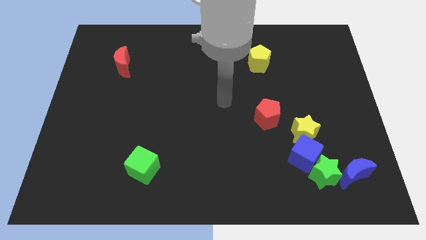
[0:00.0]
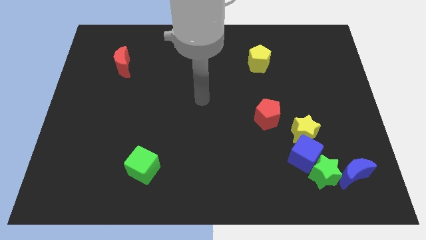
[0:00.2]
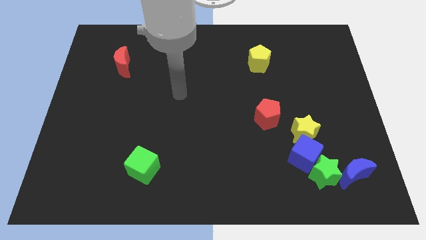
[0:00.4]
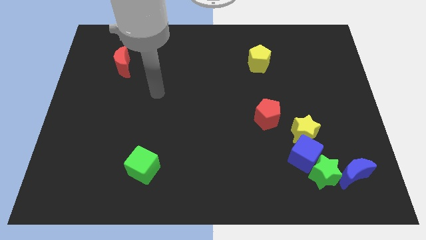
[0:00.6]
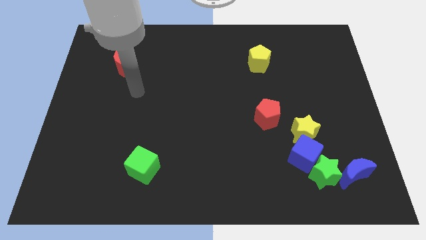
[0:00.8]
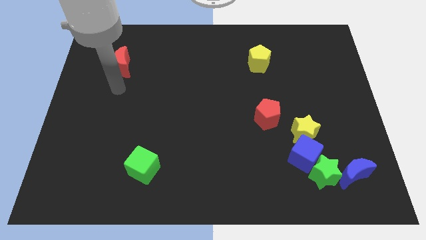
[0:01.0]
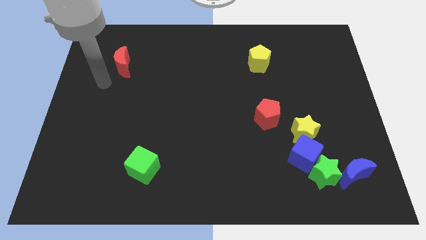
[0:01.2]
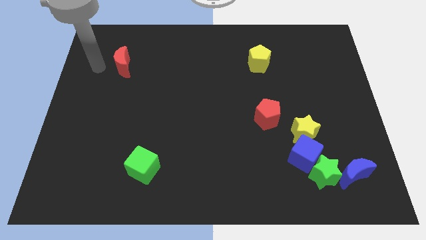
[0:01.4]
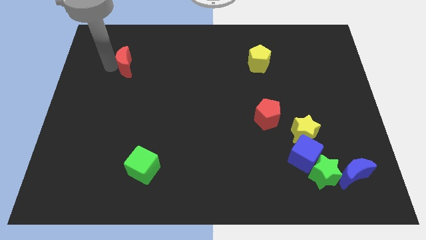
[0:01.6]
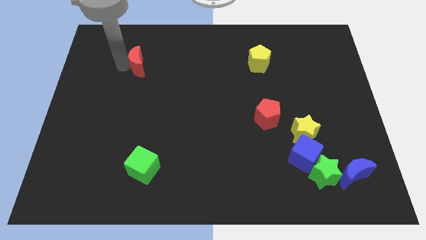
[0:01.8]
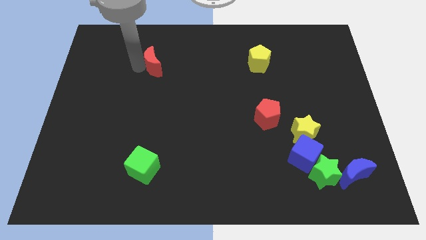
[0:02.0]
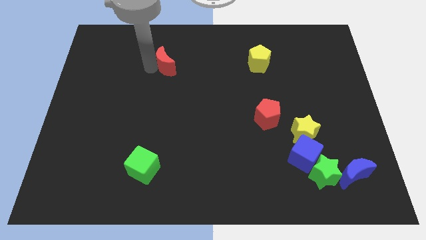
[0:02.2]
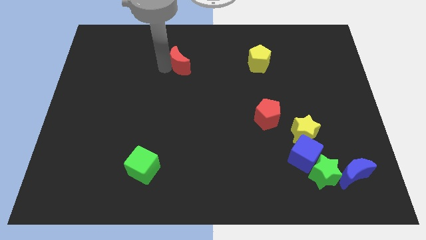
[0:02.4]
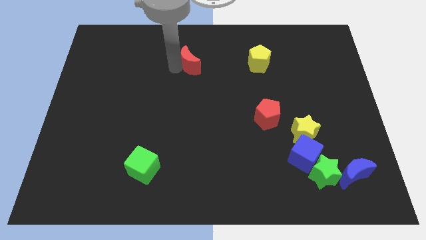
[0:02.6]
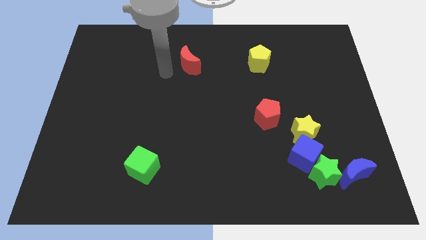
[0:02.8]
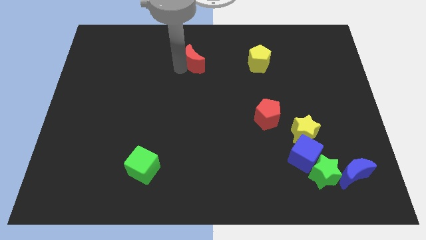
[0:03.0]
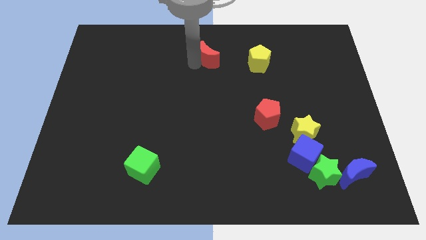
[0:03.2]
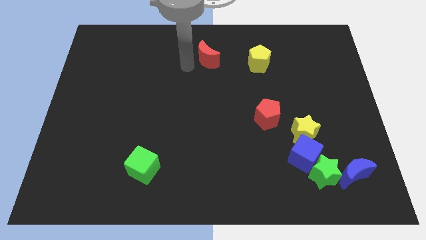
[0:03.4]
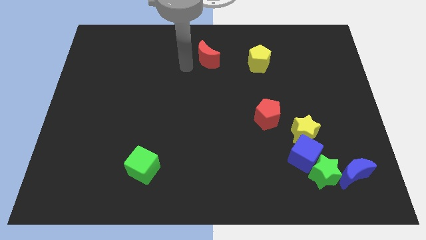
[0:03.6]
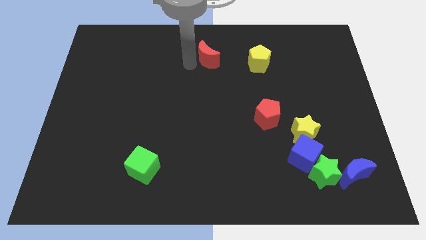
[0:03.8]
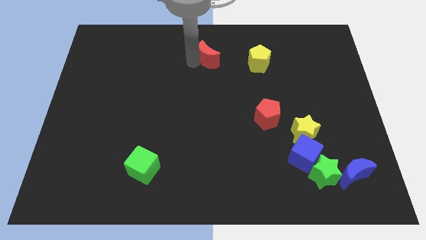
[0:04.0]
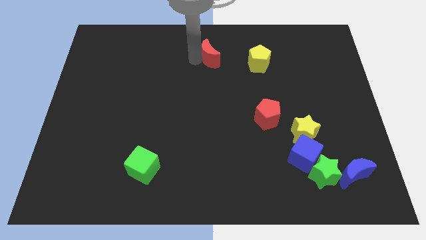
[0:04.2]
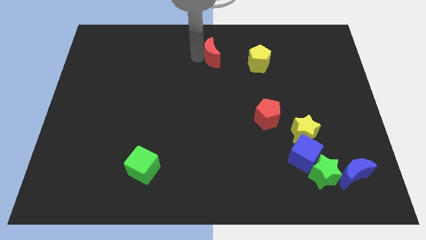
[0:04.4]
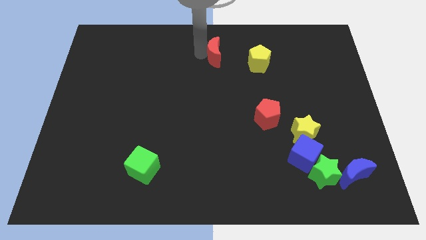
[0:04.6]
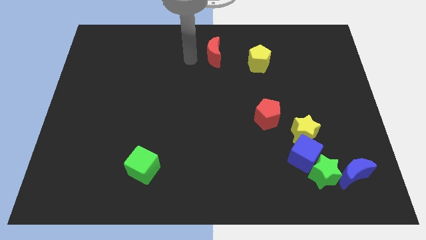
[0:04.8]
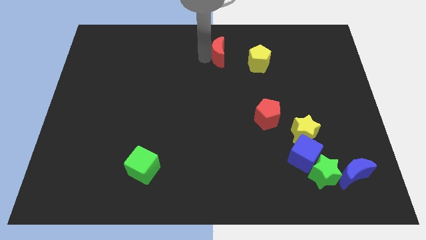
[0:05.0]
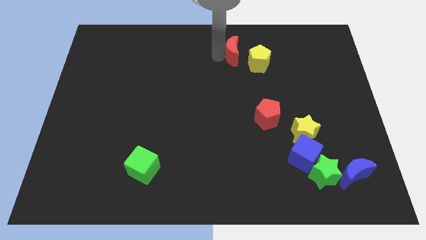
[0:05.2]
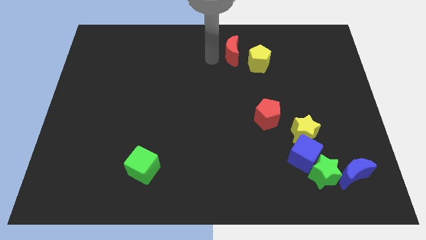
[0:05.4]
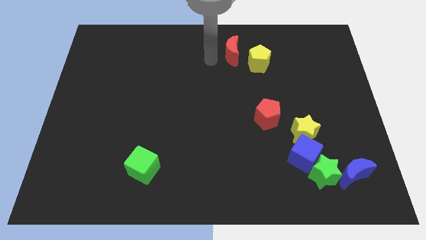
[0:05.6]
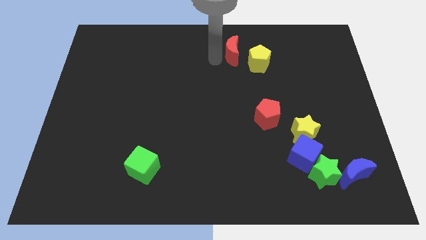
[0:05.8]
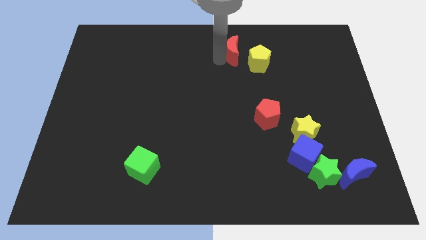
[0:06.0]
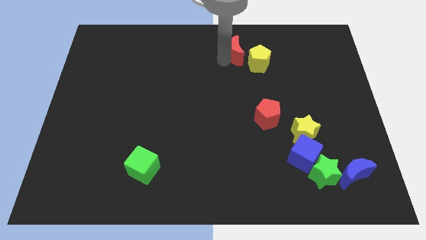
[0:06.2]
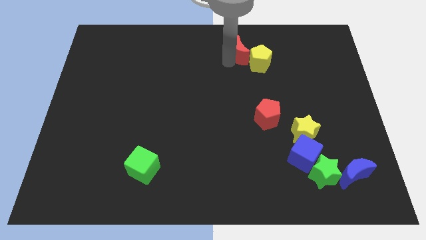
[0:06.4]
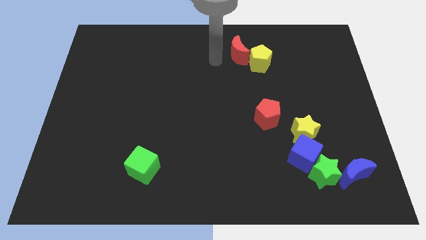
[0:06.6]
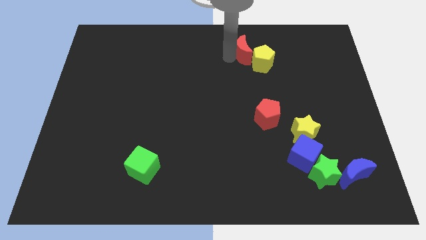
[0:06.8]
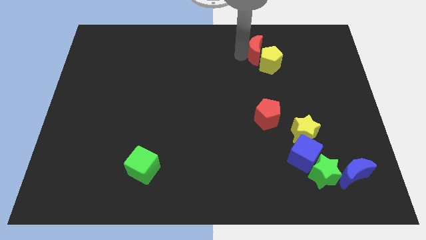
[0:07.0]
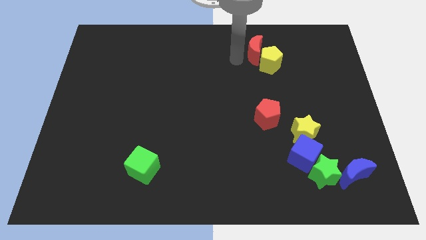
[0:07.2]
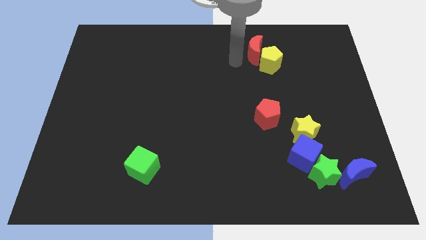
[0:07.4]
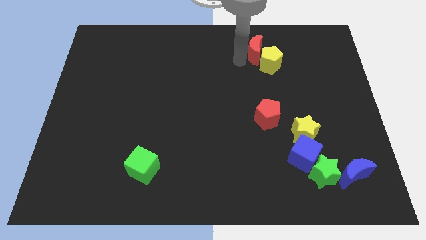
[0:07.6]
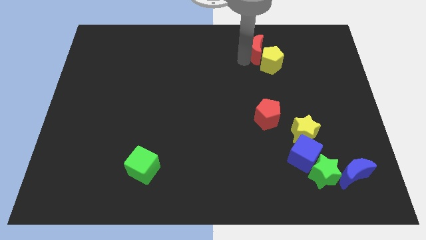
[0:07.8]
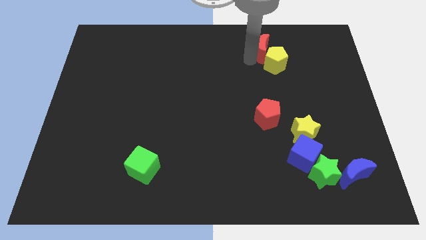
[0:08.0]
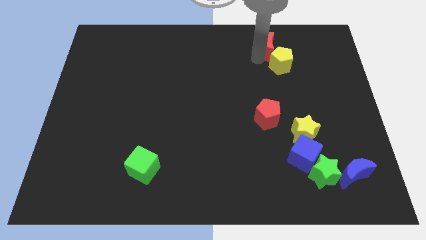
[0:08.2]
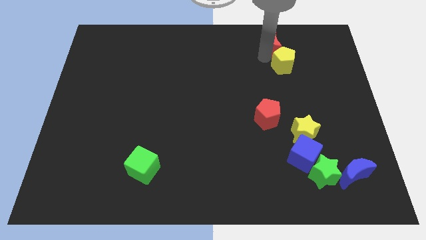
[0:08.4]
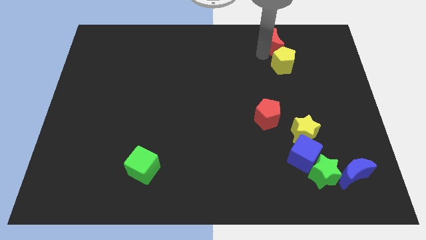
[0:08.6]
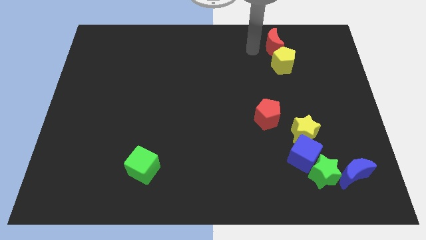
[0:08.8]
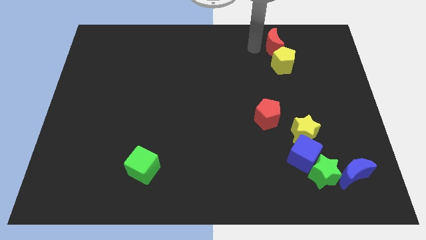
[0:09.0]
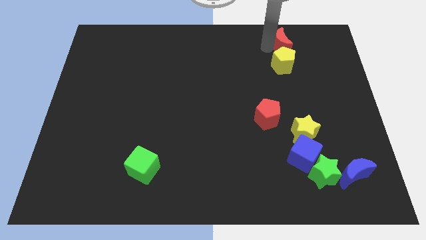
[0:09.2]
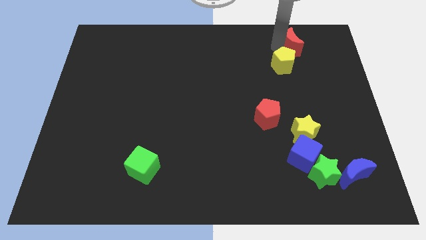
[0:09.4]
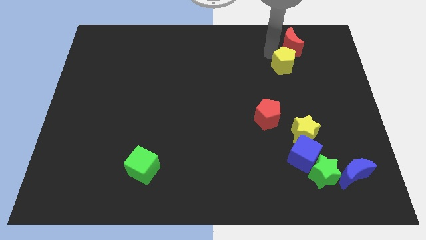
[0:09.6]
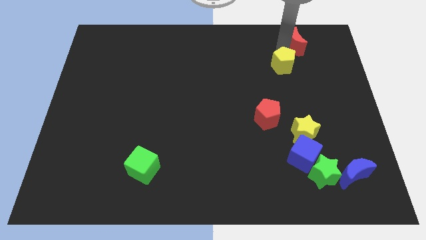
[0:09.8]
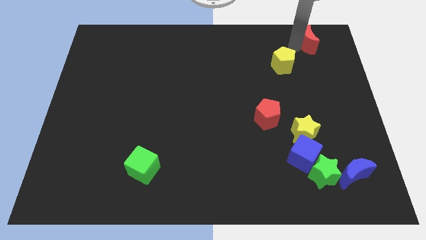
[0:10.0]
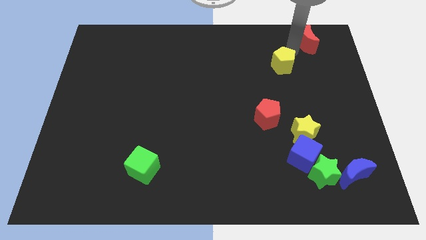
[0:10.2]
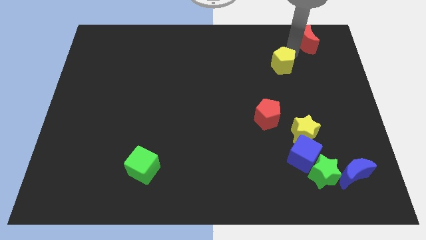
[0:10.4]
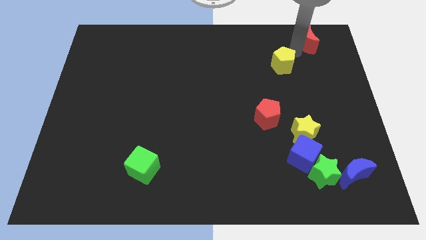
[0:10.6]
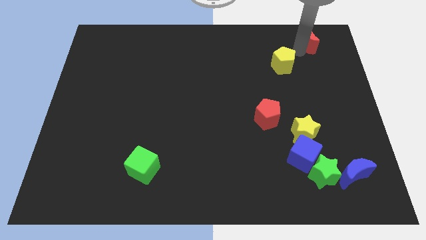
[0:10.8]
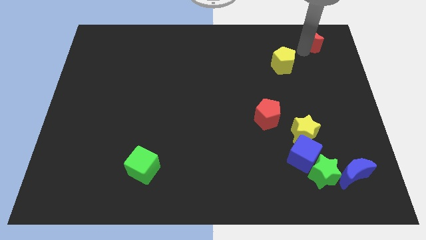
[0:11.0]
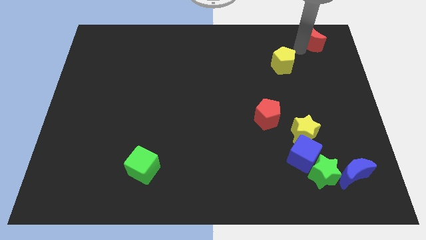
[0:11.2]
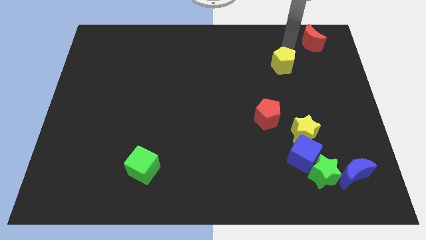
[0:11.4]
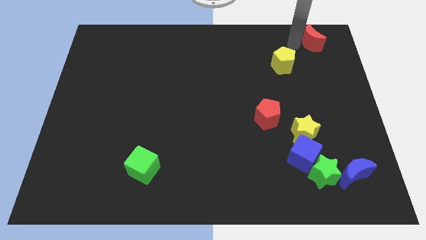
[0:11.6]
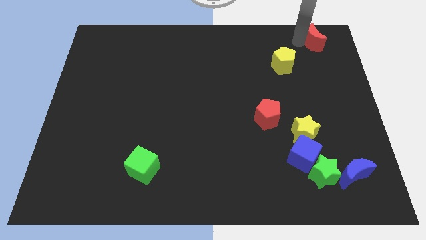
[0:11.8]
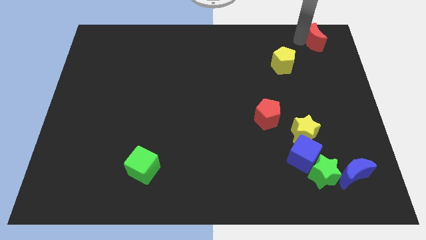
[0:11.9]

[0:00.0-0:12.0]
move the red moon to the upper right corner
